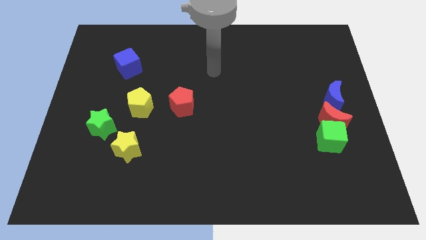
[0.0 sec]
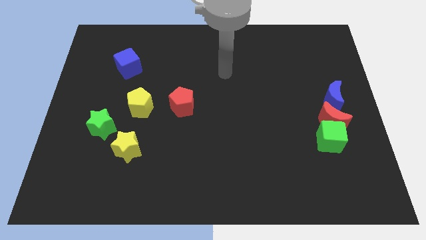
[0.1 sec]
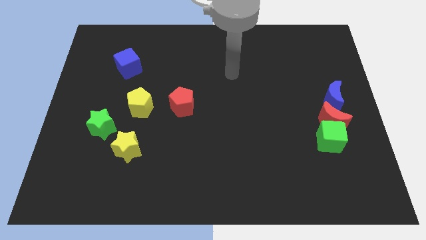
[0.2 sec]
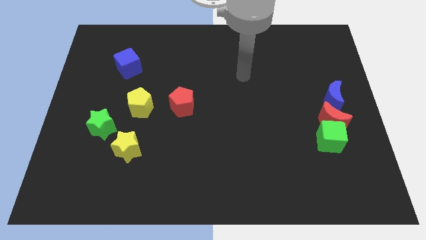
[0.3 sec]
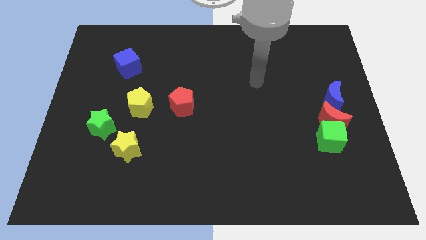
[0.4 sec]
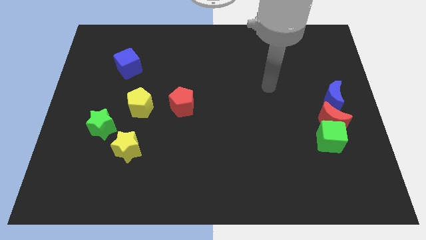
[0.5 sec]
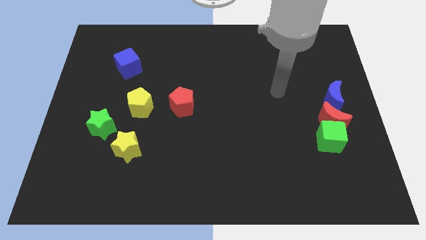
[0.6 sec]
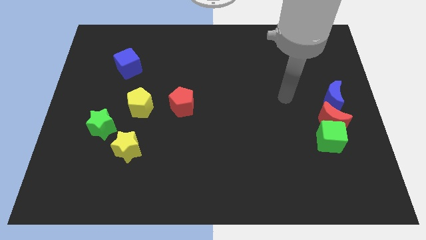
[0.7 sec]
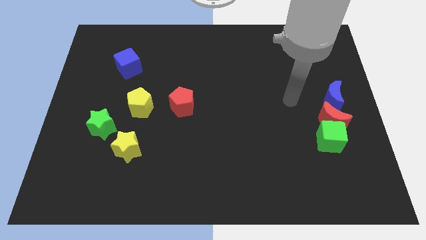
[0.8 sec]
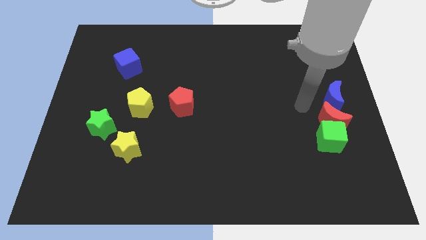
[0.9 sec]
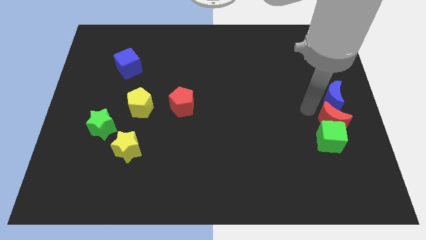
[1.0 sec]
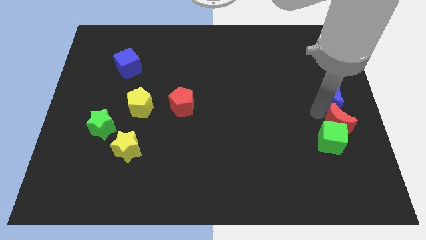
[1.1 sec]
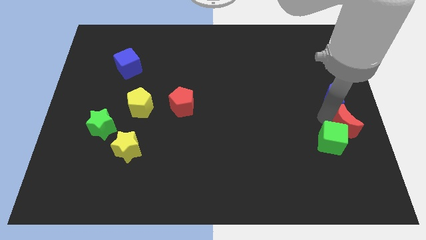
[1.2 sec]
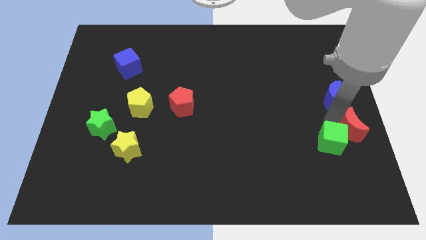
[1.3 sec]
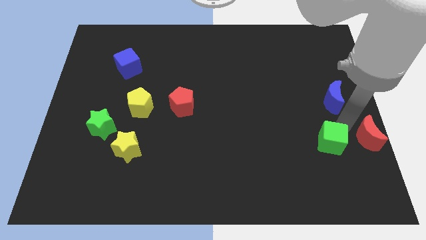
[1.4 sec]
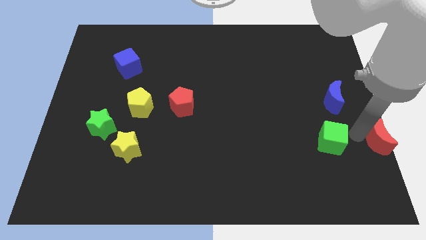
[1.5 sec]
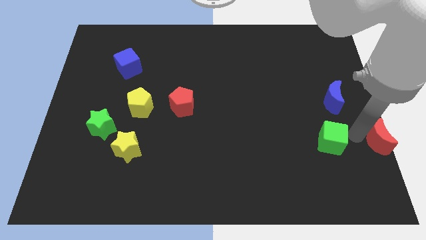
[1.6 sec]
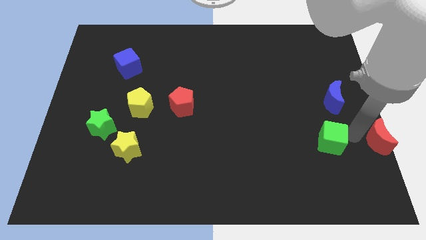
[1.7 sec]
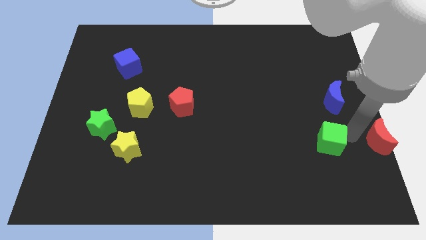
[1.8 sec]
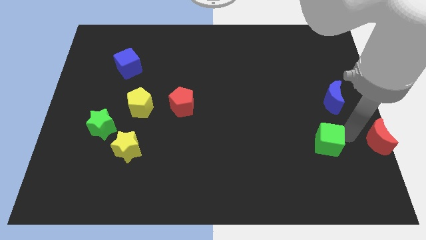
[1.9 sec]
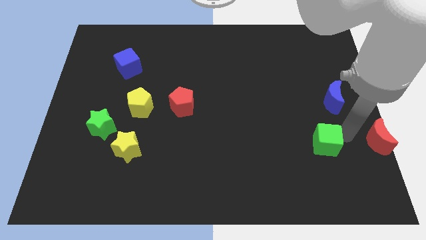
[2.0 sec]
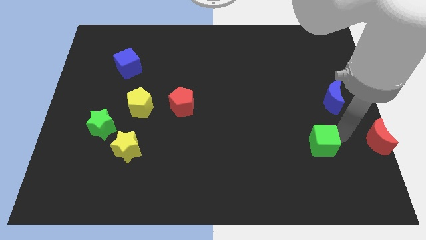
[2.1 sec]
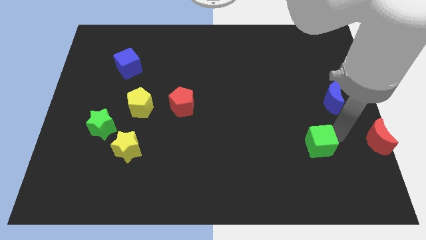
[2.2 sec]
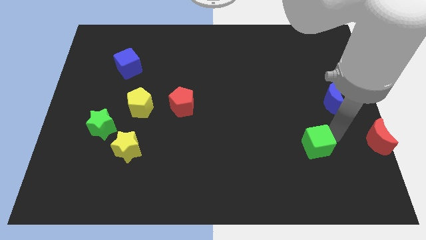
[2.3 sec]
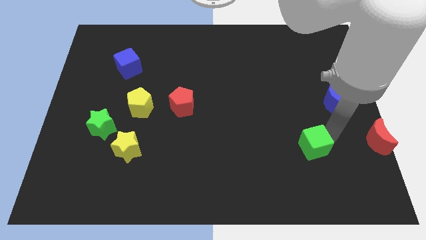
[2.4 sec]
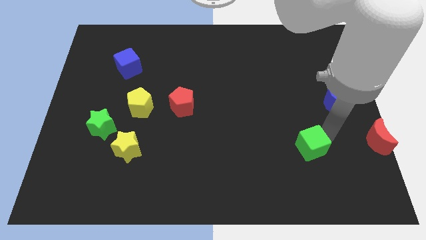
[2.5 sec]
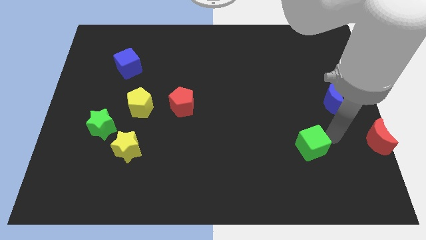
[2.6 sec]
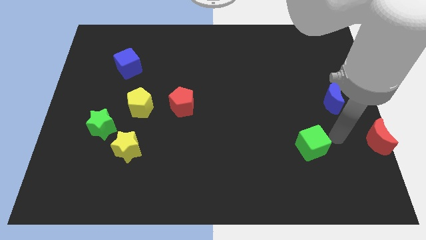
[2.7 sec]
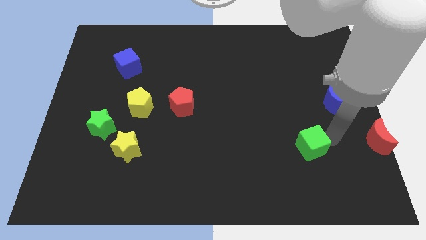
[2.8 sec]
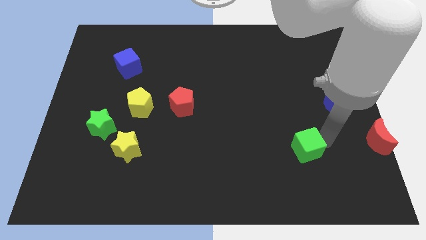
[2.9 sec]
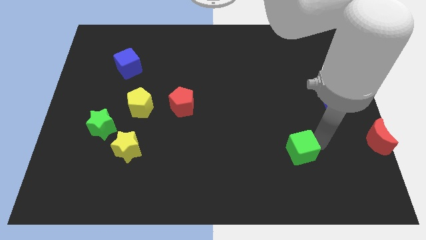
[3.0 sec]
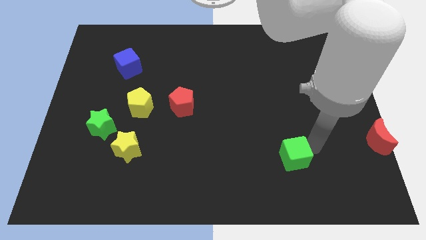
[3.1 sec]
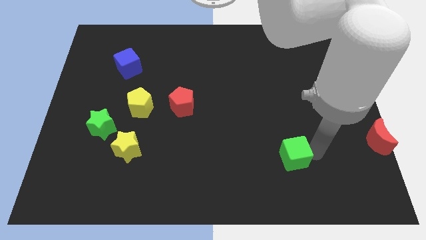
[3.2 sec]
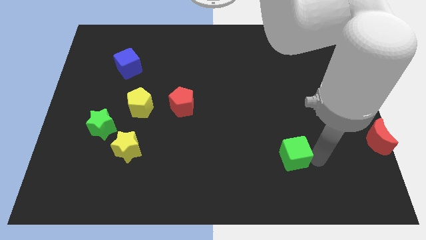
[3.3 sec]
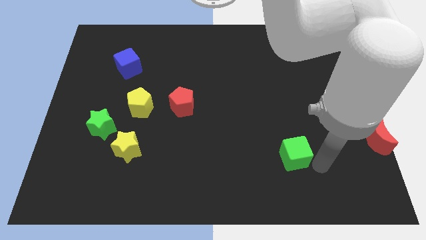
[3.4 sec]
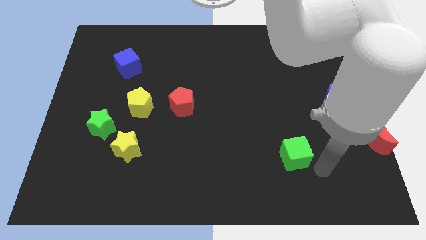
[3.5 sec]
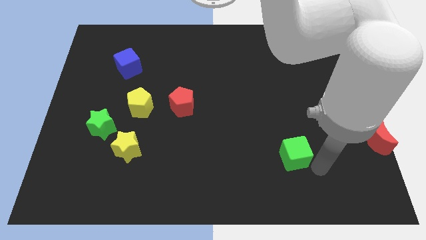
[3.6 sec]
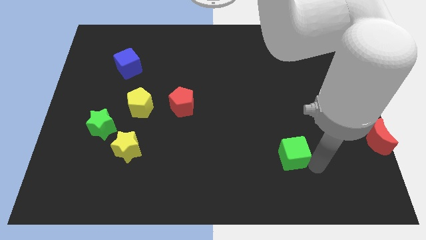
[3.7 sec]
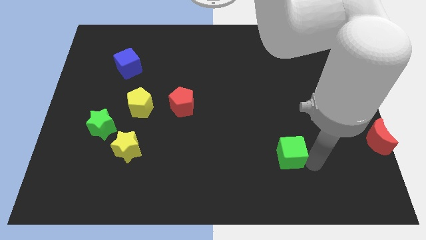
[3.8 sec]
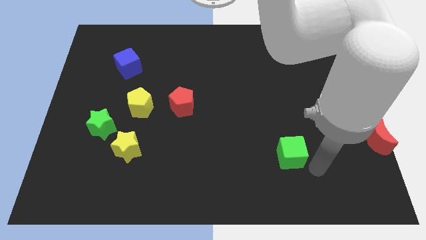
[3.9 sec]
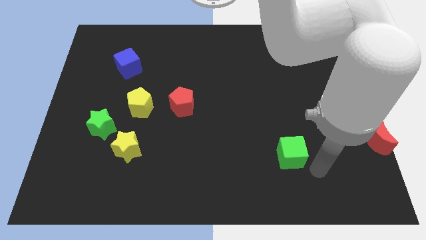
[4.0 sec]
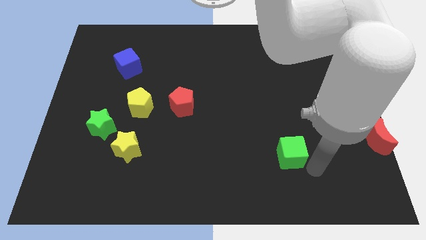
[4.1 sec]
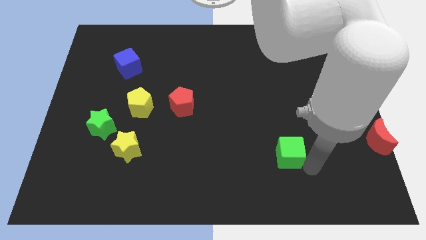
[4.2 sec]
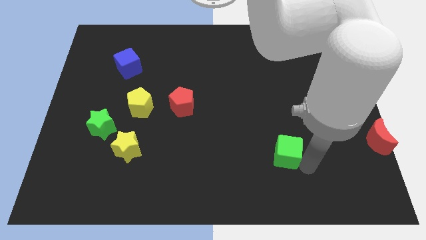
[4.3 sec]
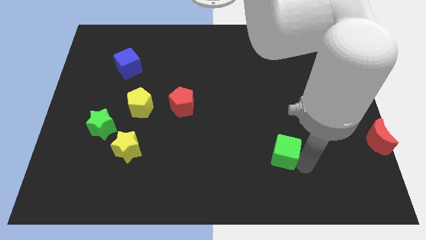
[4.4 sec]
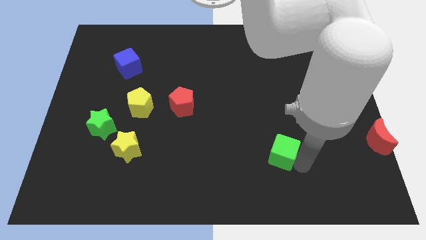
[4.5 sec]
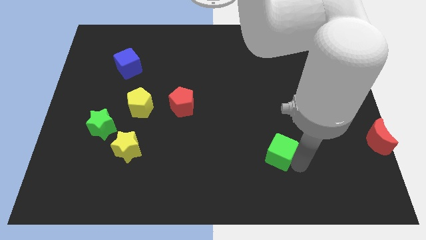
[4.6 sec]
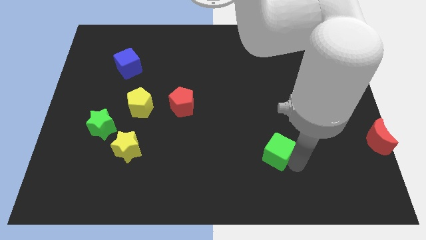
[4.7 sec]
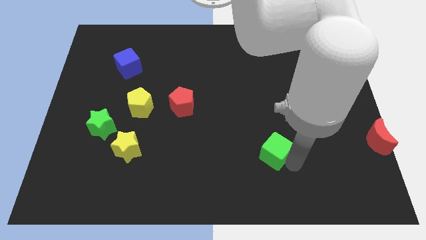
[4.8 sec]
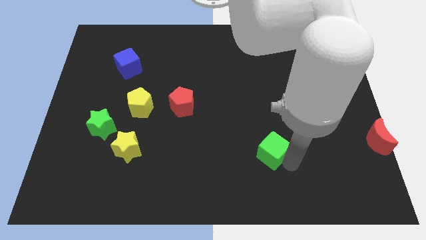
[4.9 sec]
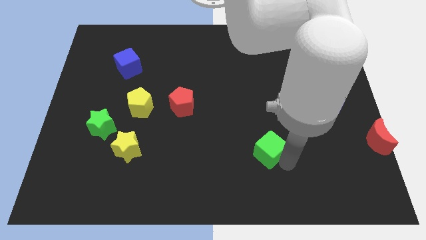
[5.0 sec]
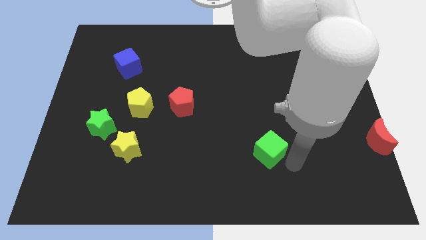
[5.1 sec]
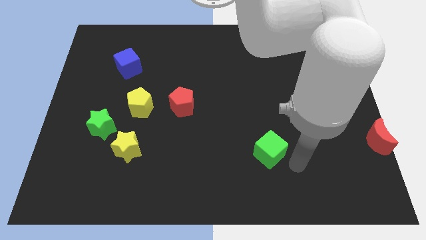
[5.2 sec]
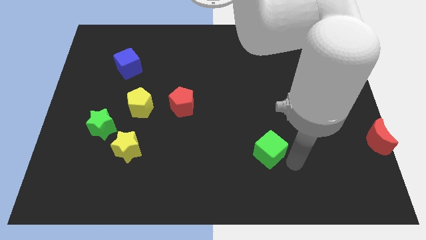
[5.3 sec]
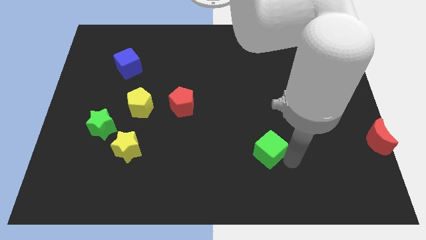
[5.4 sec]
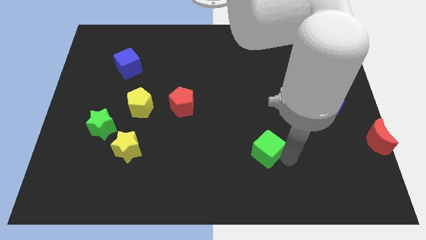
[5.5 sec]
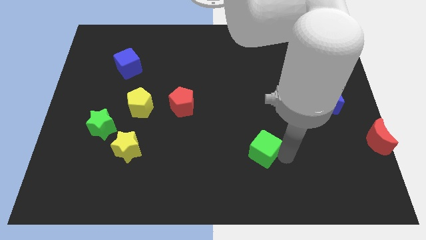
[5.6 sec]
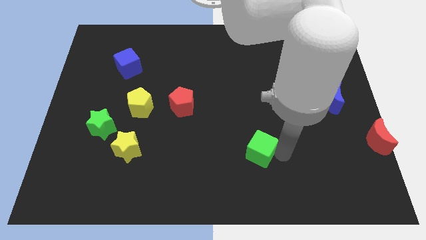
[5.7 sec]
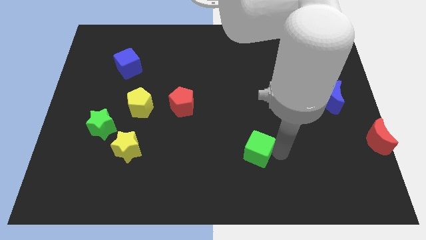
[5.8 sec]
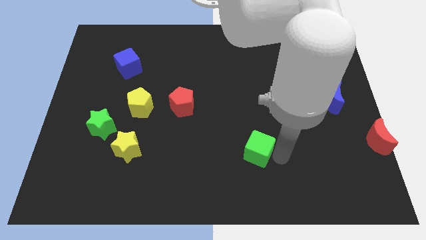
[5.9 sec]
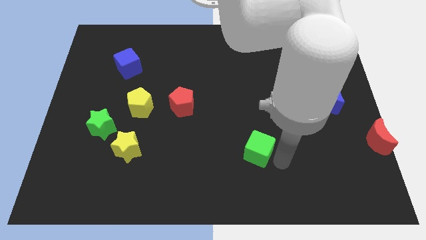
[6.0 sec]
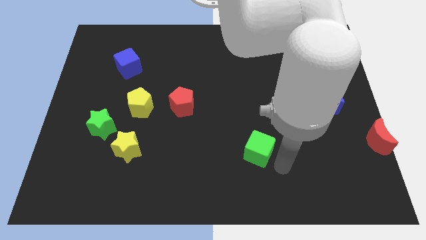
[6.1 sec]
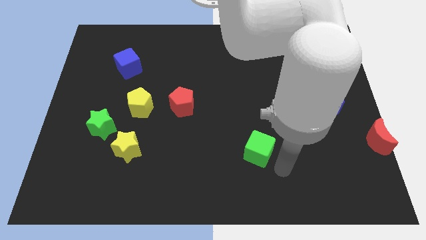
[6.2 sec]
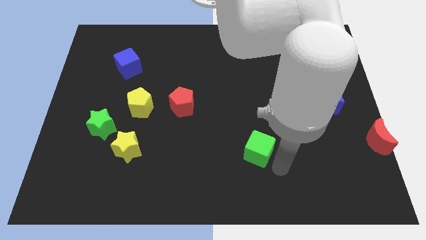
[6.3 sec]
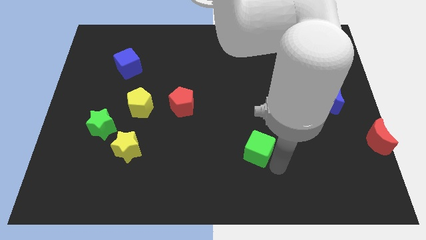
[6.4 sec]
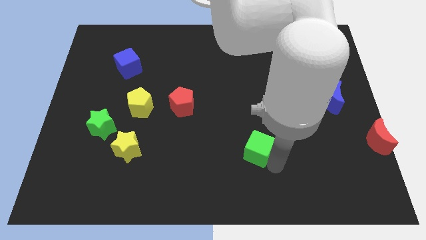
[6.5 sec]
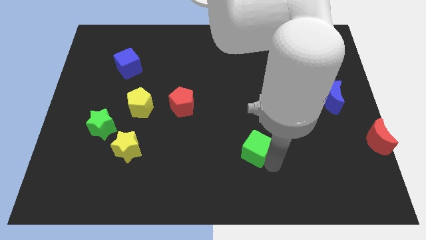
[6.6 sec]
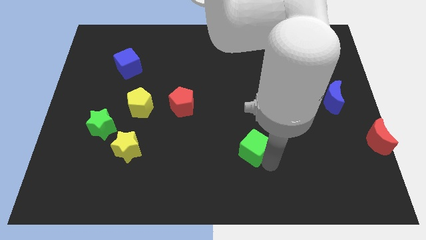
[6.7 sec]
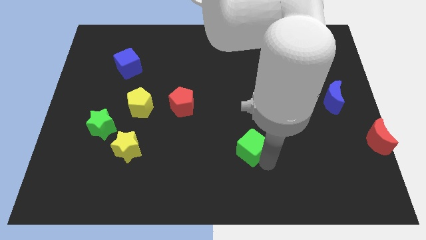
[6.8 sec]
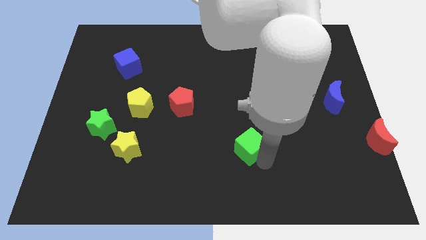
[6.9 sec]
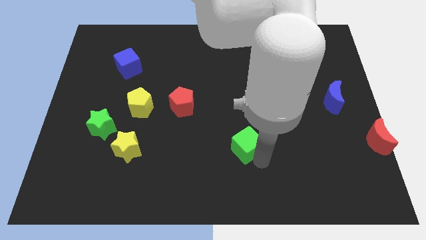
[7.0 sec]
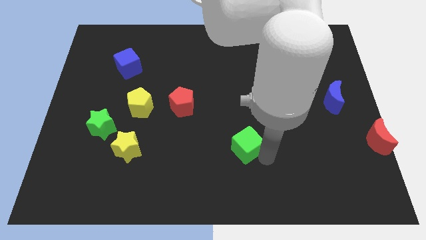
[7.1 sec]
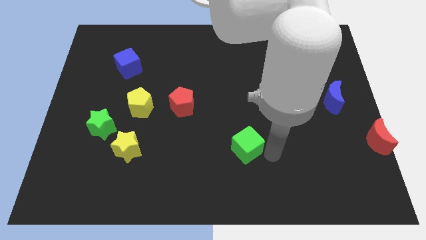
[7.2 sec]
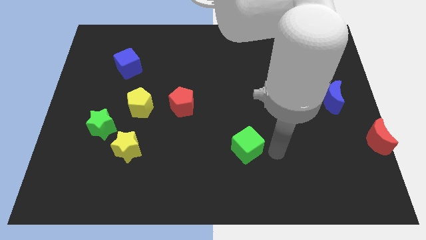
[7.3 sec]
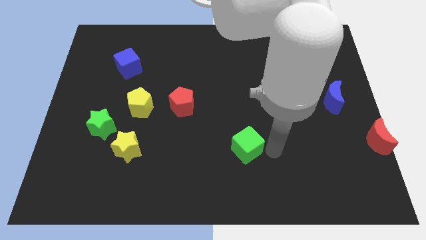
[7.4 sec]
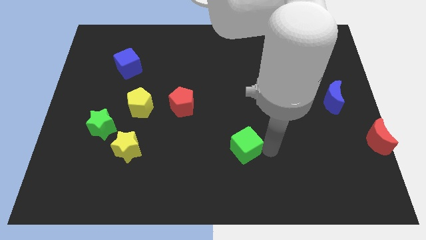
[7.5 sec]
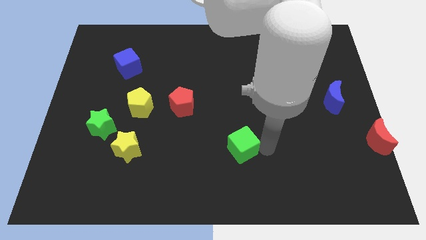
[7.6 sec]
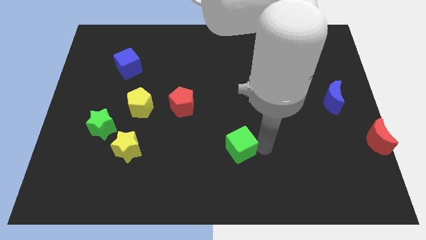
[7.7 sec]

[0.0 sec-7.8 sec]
push the green cube to the left

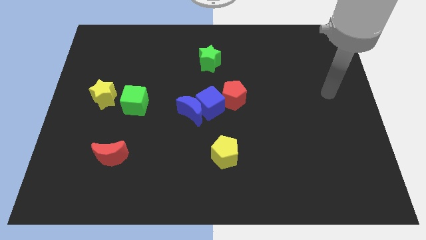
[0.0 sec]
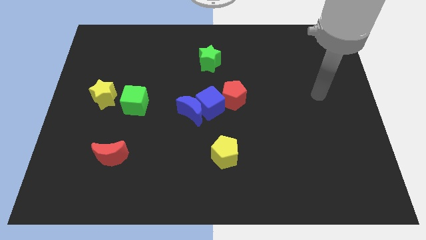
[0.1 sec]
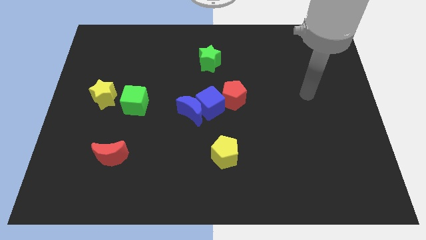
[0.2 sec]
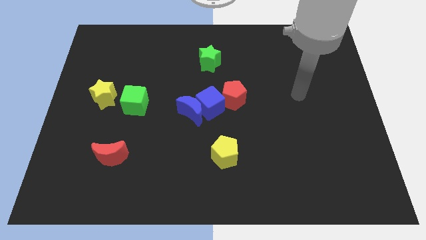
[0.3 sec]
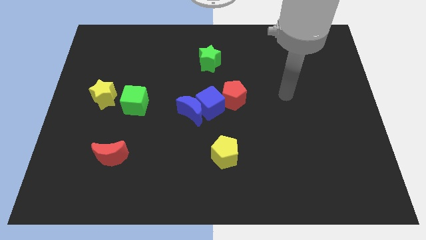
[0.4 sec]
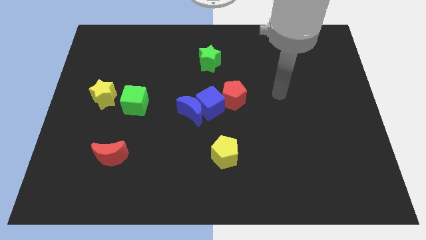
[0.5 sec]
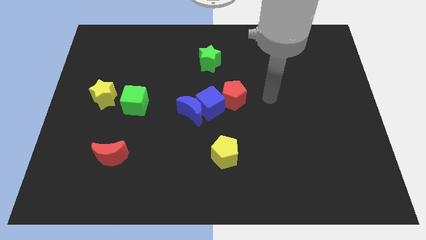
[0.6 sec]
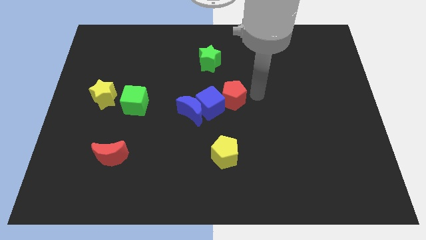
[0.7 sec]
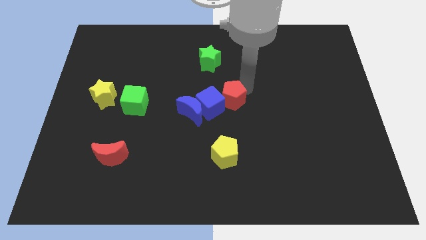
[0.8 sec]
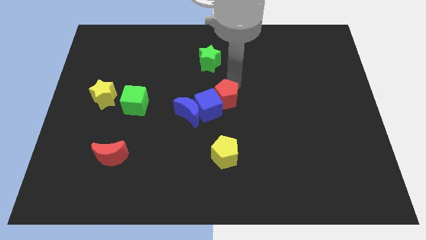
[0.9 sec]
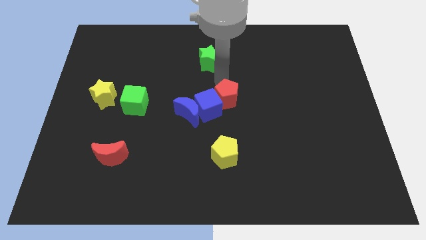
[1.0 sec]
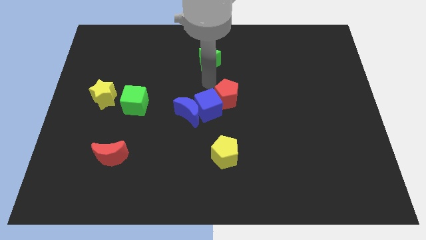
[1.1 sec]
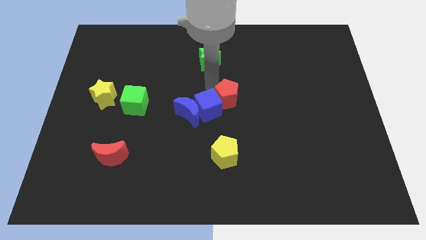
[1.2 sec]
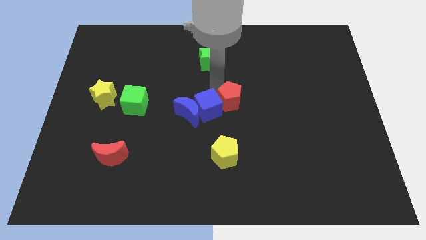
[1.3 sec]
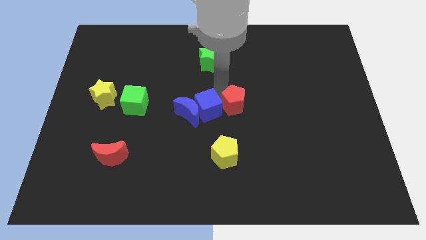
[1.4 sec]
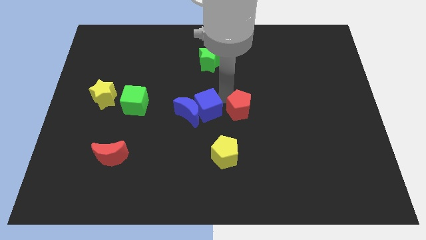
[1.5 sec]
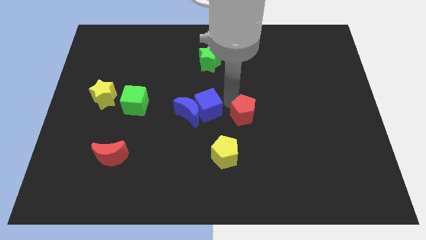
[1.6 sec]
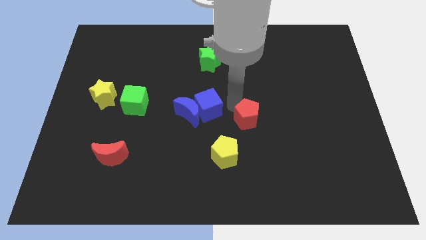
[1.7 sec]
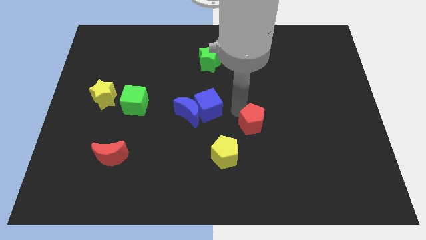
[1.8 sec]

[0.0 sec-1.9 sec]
slightly push the red pentagon diagonally down and right
